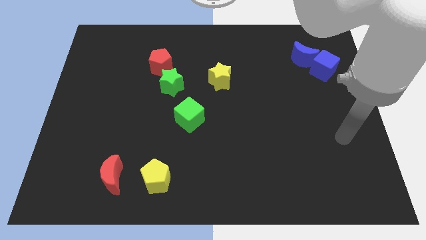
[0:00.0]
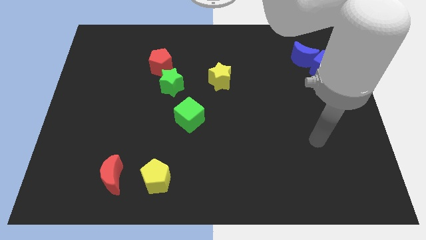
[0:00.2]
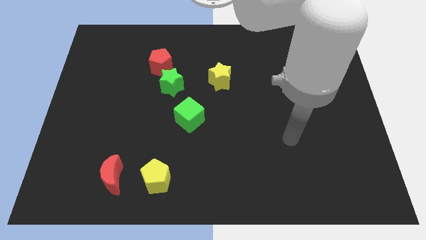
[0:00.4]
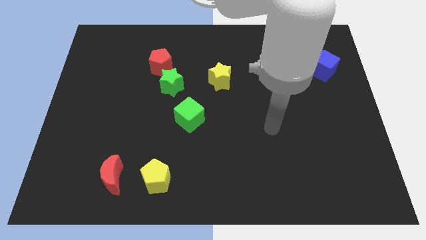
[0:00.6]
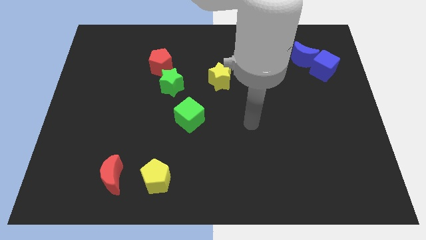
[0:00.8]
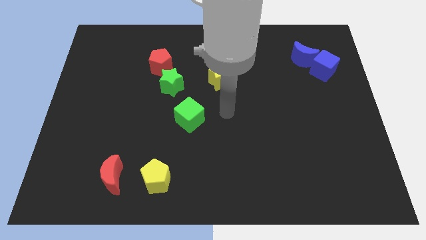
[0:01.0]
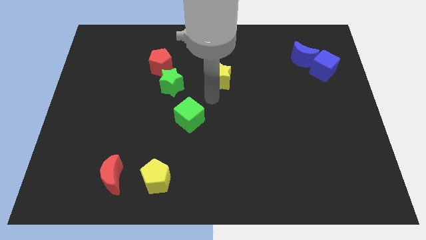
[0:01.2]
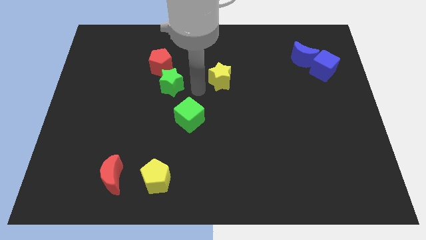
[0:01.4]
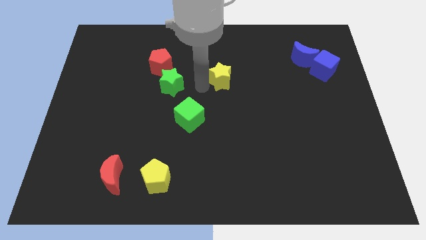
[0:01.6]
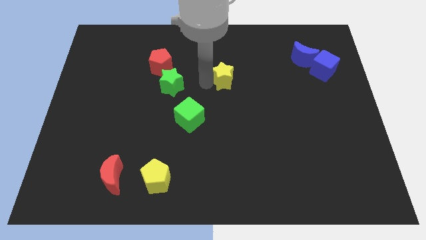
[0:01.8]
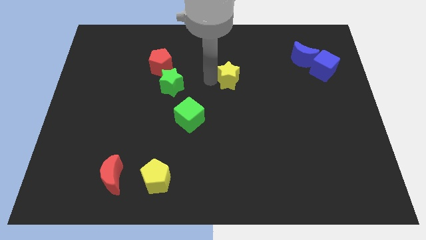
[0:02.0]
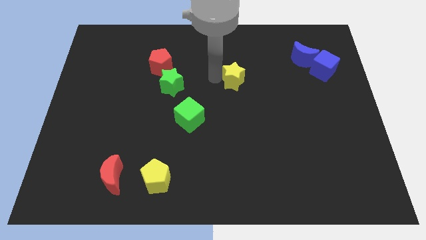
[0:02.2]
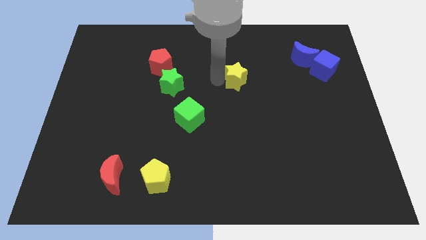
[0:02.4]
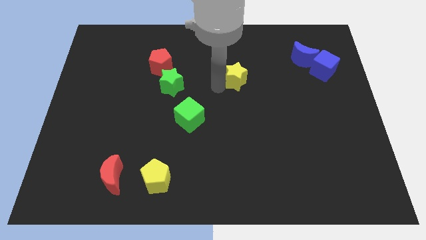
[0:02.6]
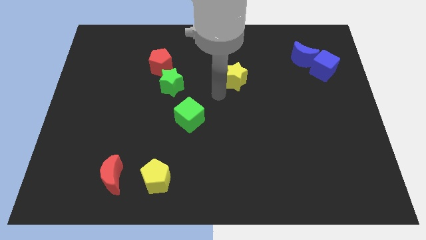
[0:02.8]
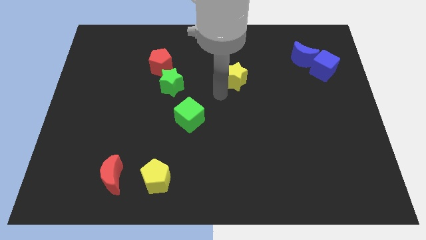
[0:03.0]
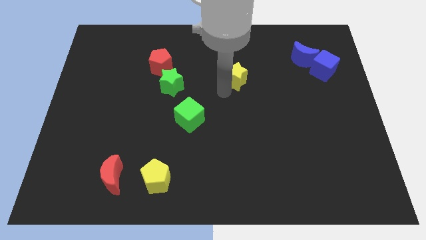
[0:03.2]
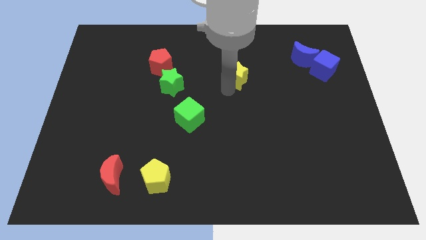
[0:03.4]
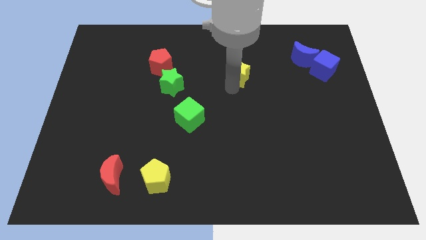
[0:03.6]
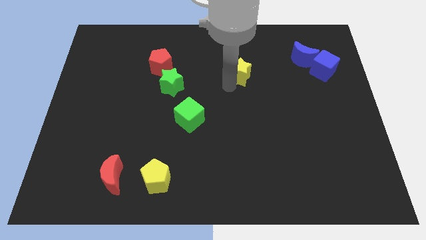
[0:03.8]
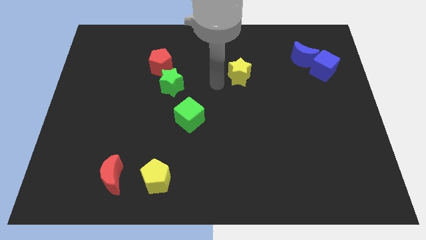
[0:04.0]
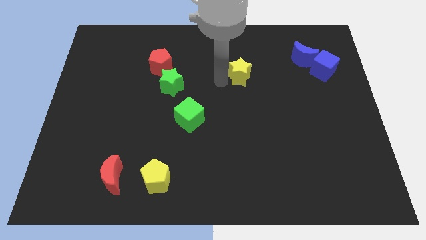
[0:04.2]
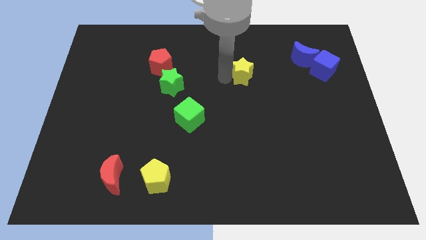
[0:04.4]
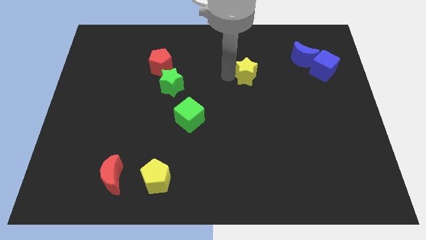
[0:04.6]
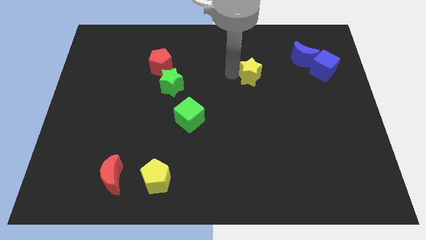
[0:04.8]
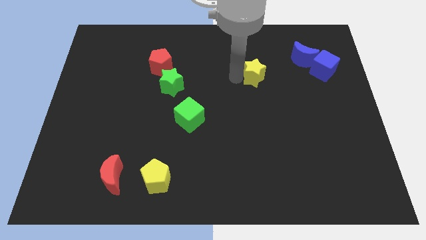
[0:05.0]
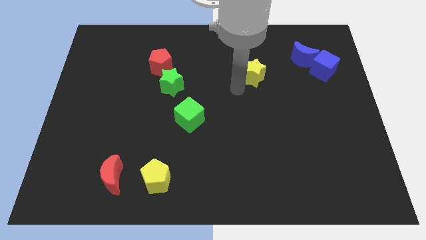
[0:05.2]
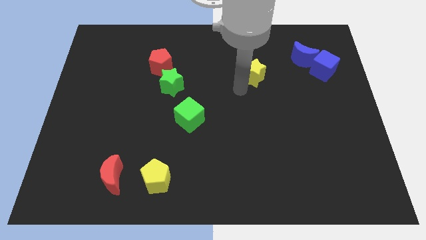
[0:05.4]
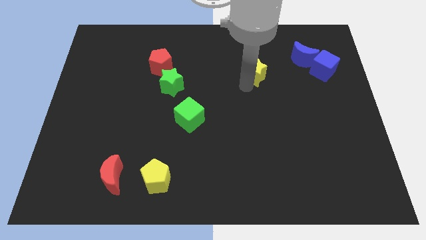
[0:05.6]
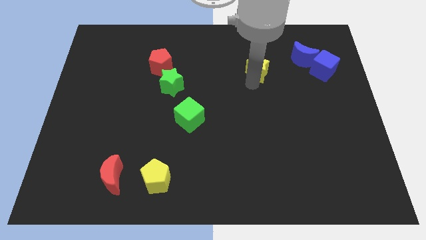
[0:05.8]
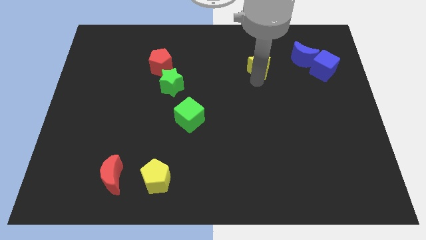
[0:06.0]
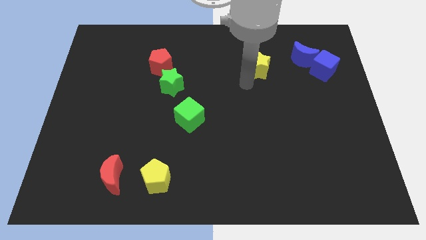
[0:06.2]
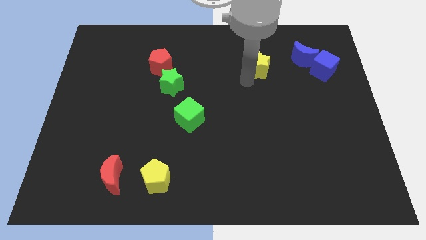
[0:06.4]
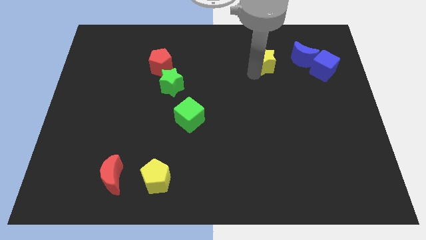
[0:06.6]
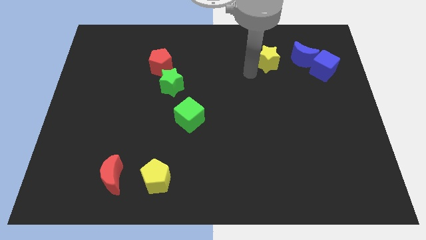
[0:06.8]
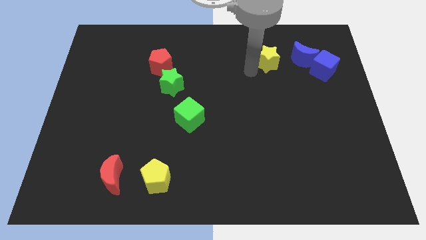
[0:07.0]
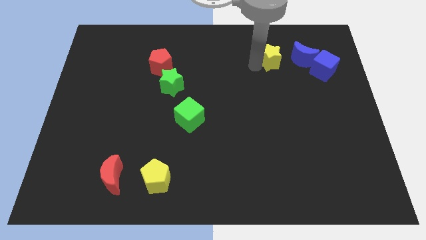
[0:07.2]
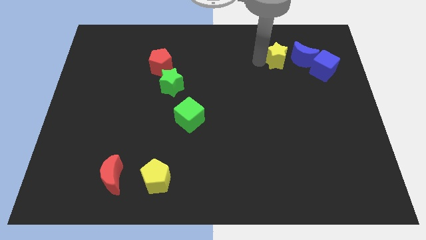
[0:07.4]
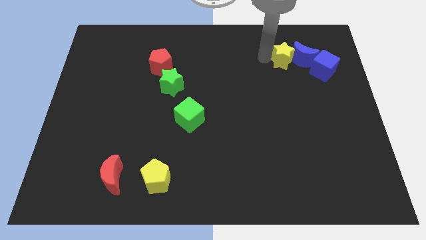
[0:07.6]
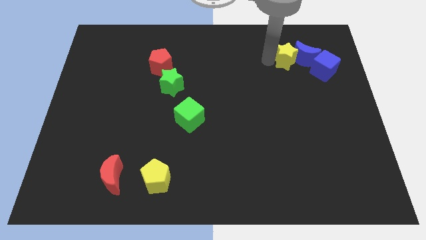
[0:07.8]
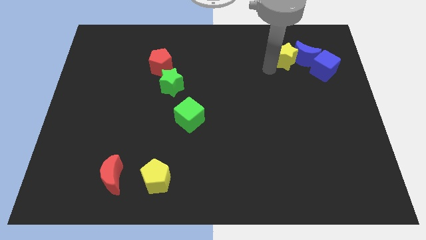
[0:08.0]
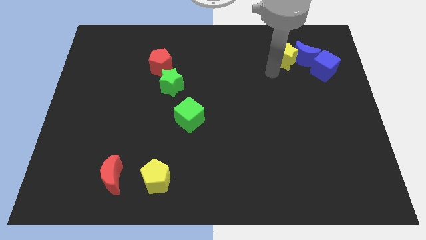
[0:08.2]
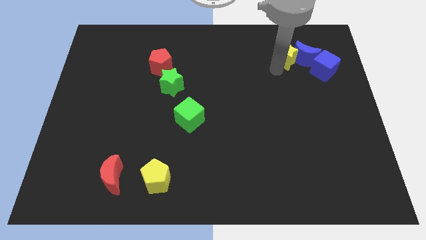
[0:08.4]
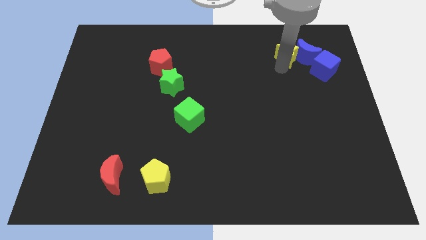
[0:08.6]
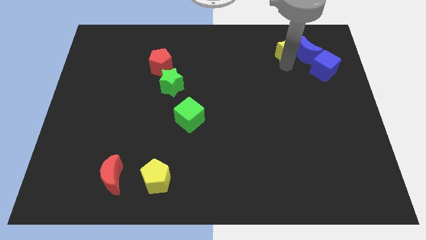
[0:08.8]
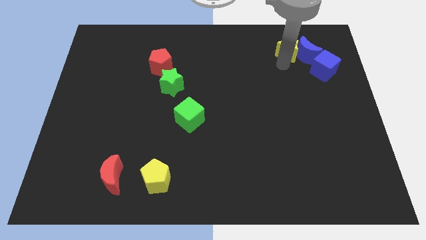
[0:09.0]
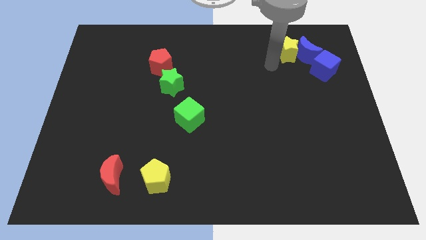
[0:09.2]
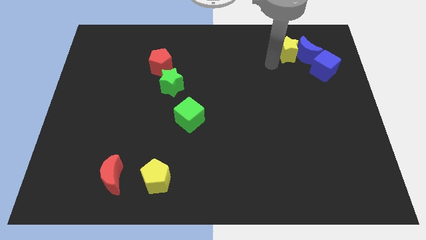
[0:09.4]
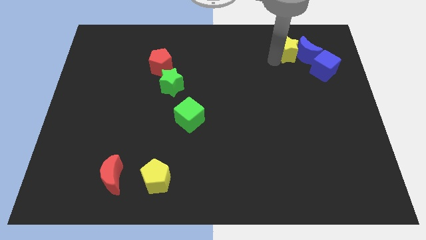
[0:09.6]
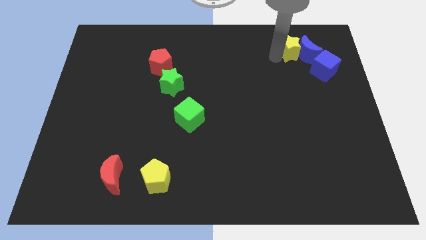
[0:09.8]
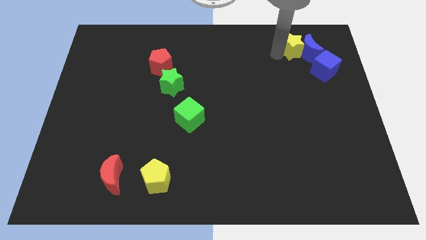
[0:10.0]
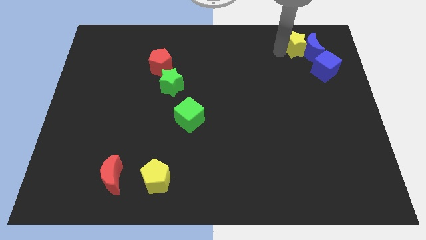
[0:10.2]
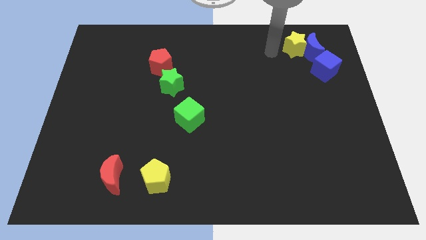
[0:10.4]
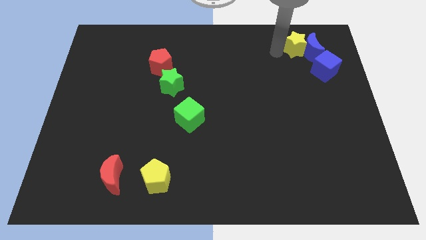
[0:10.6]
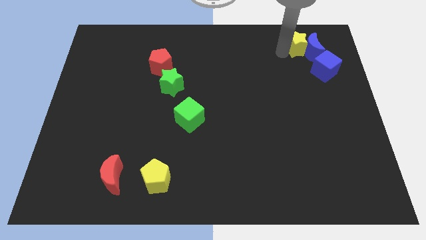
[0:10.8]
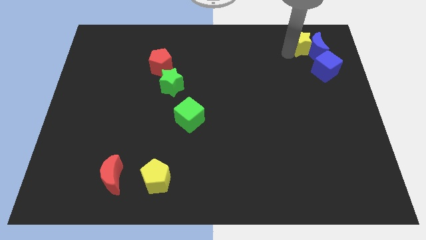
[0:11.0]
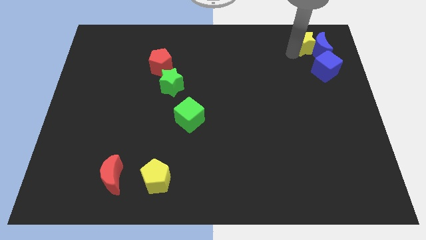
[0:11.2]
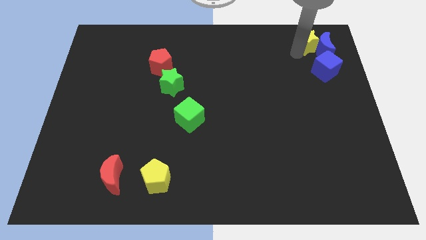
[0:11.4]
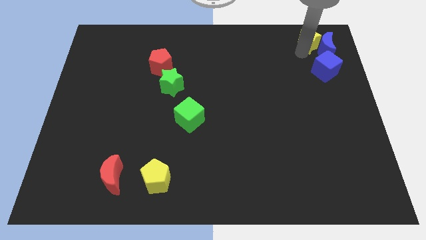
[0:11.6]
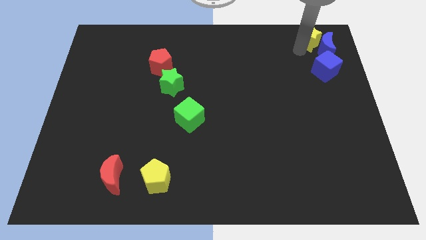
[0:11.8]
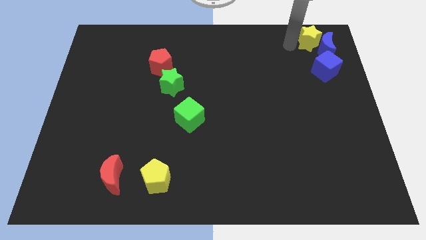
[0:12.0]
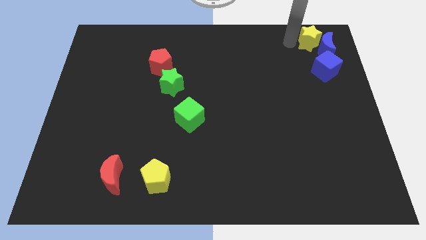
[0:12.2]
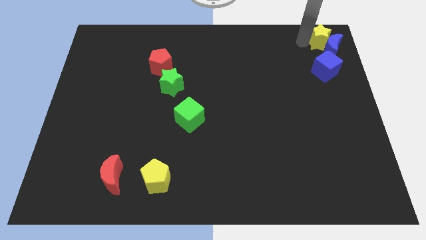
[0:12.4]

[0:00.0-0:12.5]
push the yellow star to the upper right corner
